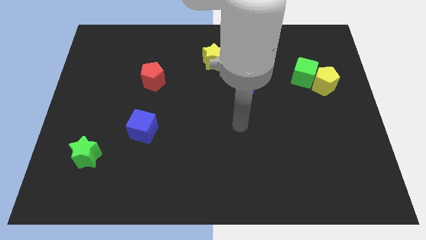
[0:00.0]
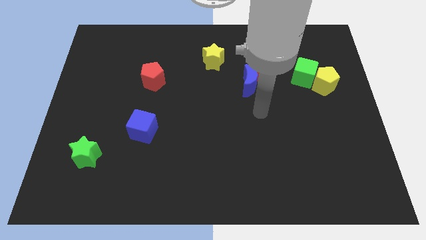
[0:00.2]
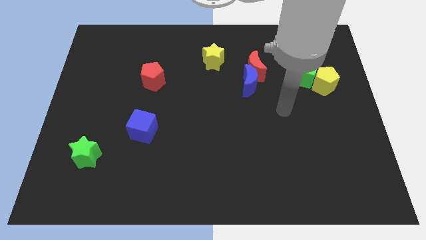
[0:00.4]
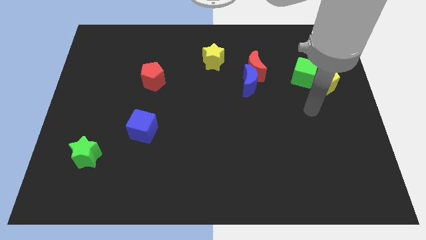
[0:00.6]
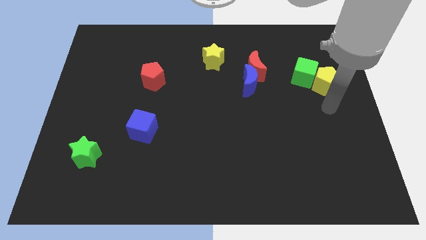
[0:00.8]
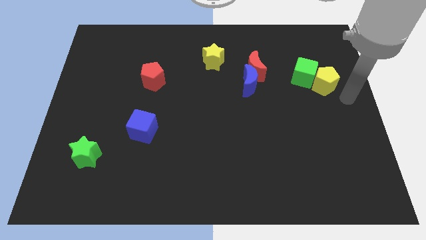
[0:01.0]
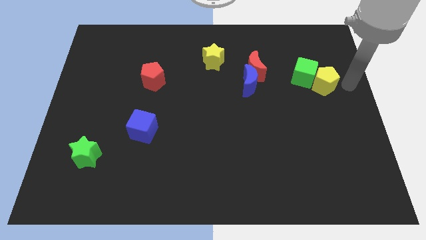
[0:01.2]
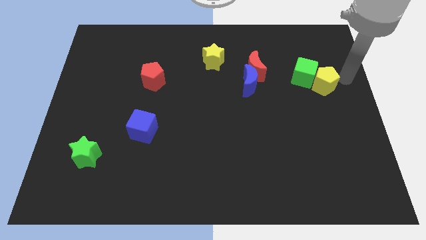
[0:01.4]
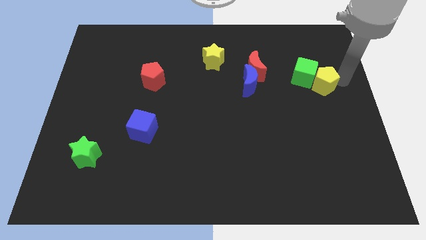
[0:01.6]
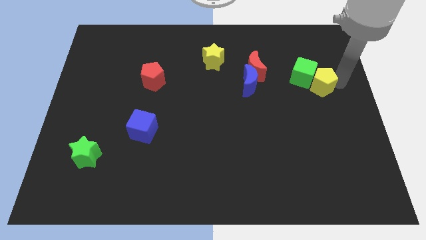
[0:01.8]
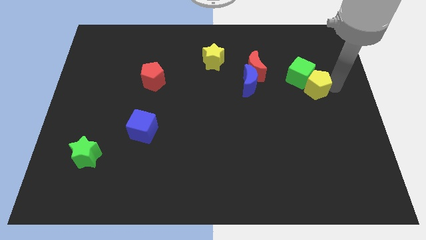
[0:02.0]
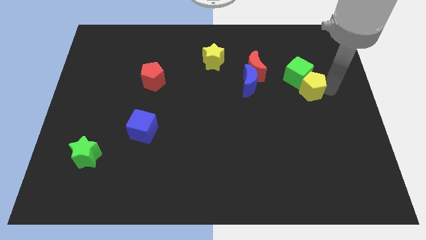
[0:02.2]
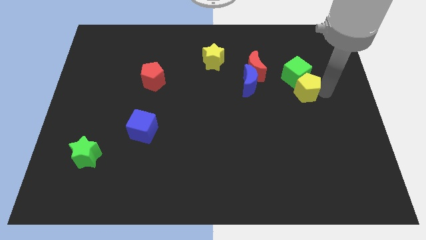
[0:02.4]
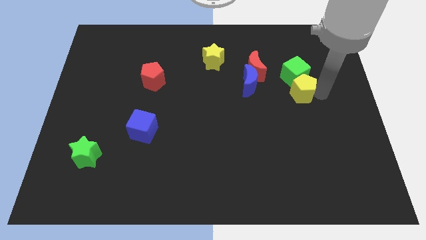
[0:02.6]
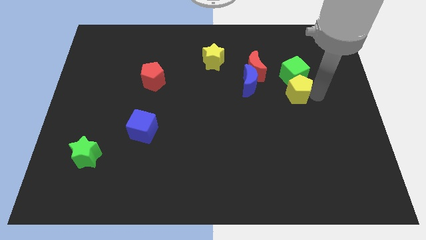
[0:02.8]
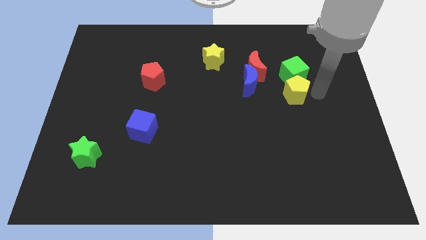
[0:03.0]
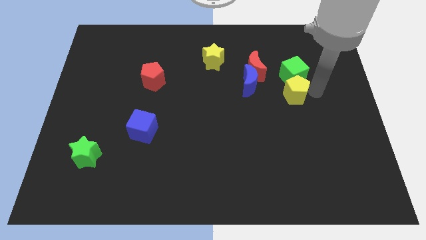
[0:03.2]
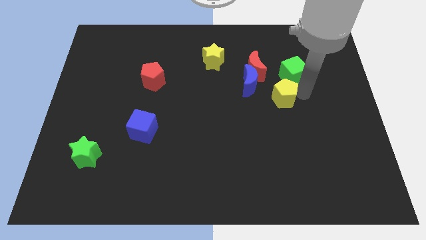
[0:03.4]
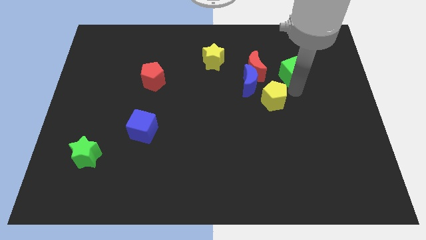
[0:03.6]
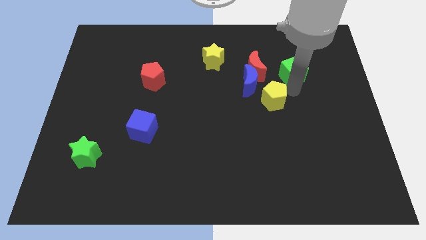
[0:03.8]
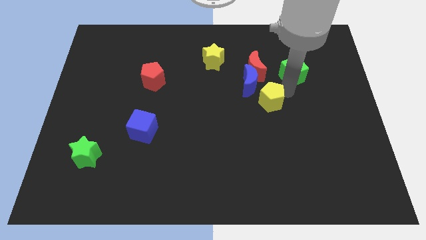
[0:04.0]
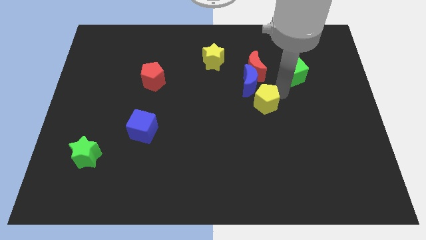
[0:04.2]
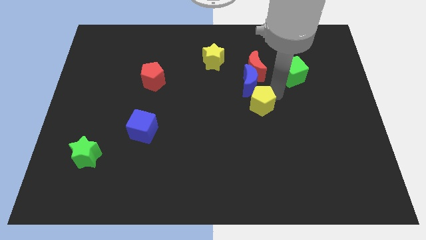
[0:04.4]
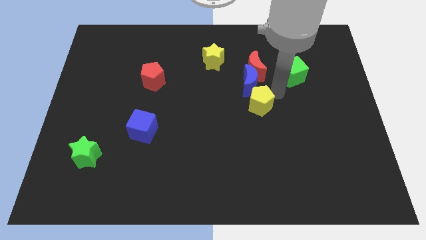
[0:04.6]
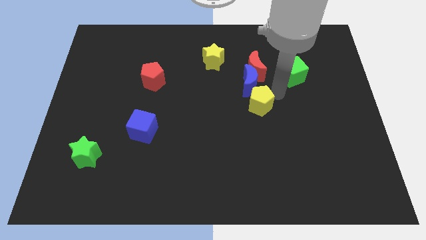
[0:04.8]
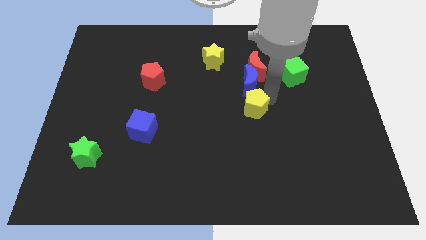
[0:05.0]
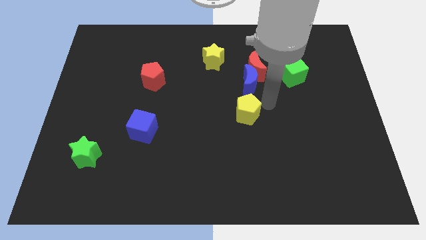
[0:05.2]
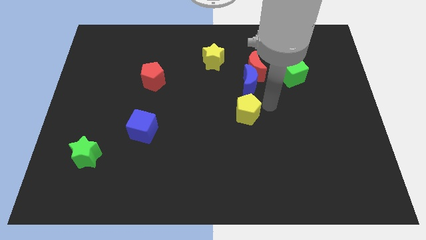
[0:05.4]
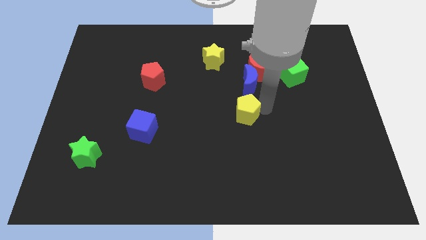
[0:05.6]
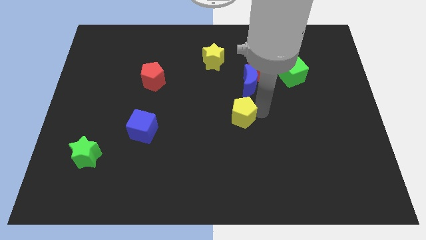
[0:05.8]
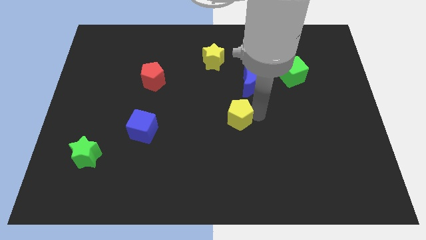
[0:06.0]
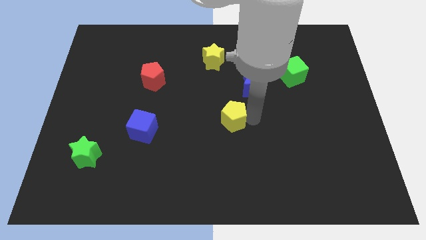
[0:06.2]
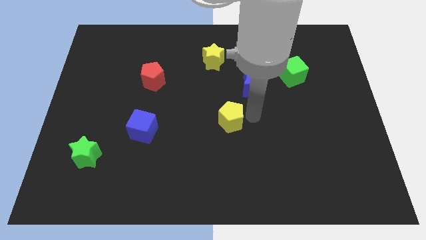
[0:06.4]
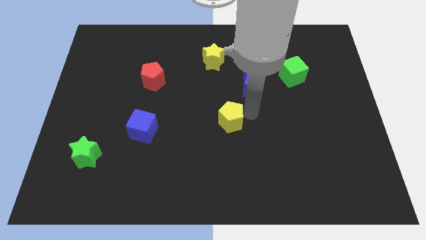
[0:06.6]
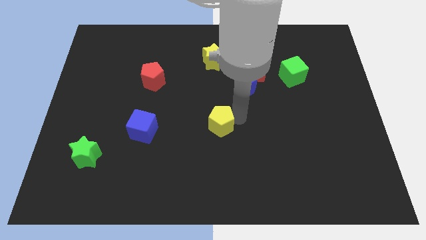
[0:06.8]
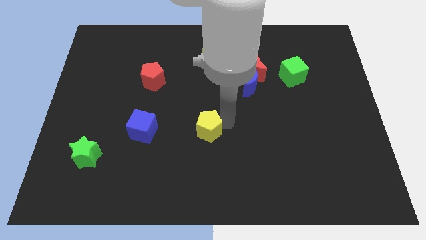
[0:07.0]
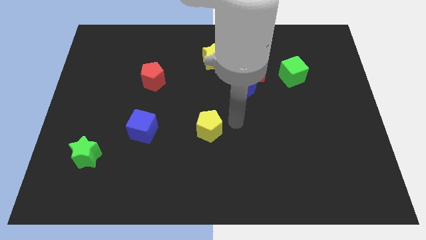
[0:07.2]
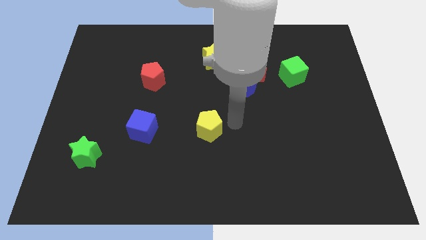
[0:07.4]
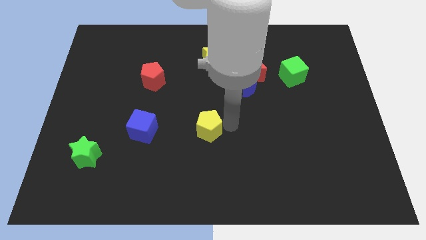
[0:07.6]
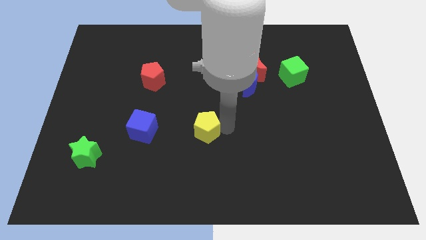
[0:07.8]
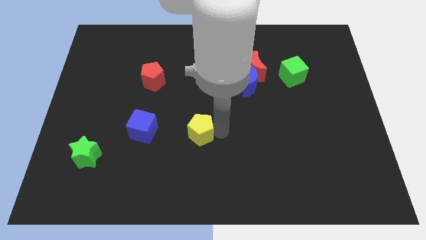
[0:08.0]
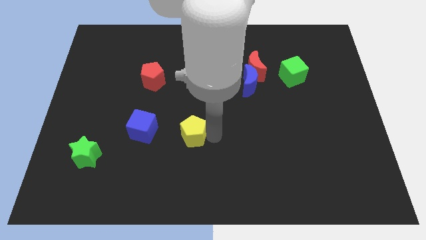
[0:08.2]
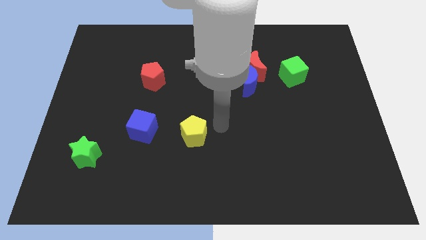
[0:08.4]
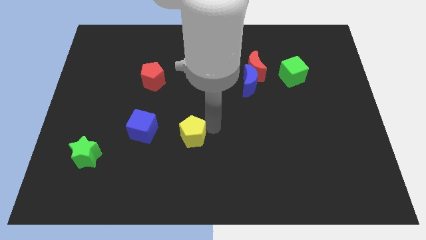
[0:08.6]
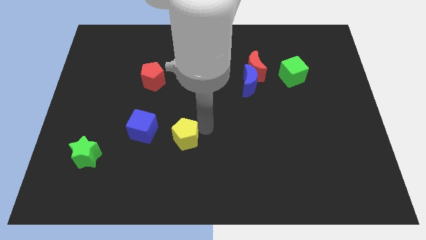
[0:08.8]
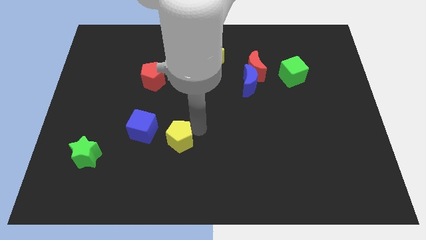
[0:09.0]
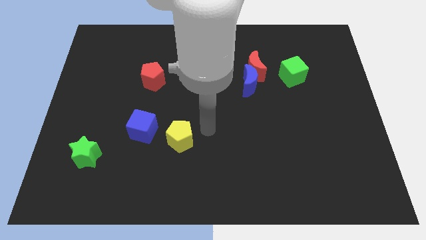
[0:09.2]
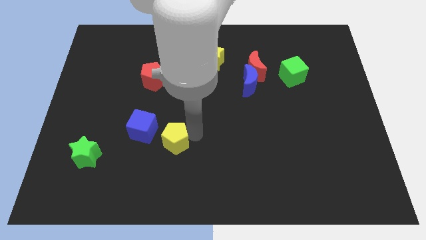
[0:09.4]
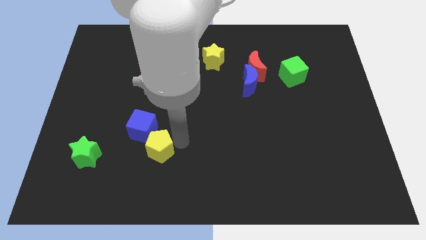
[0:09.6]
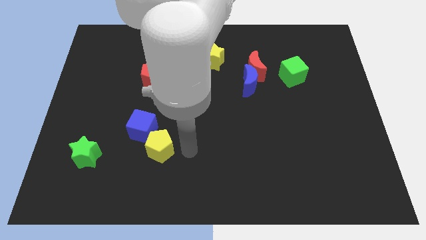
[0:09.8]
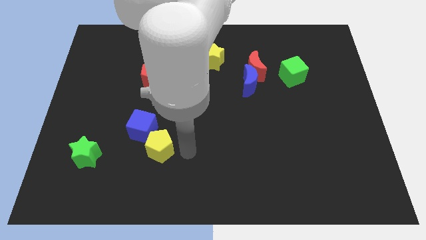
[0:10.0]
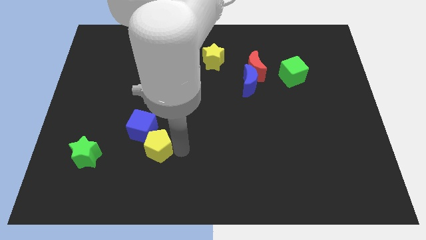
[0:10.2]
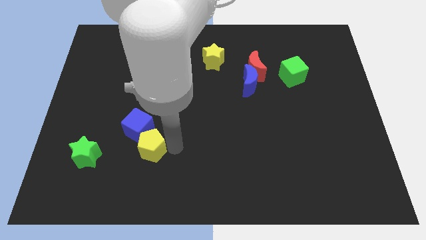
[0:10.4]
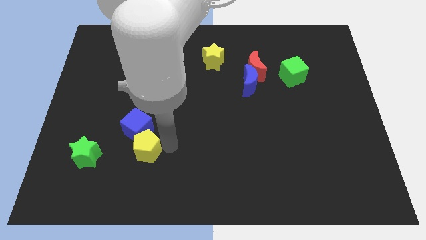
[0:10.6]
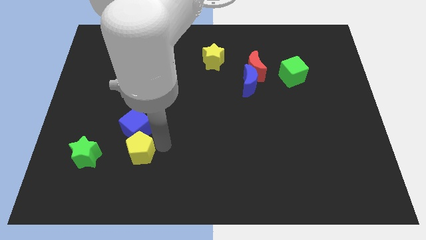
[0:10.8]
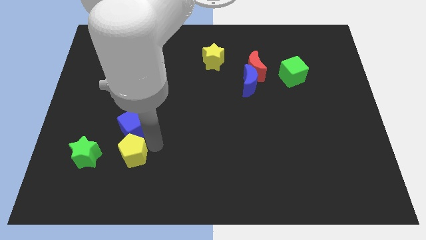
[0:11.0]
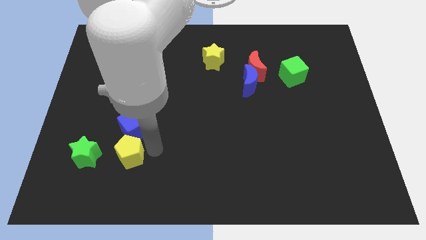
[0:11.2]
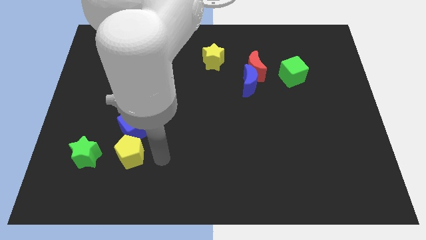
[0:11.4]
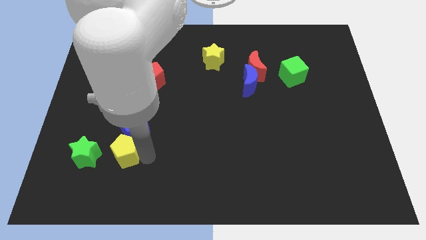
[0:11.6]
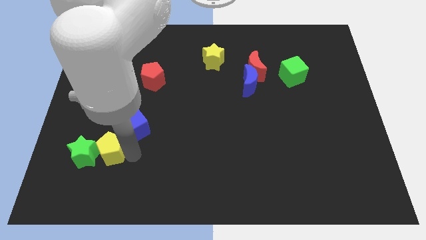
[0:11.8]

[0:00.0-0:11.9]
move the yellow pentagon next to the green star
